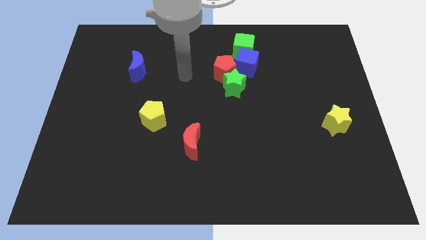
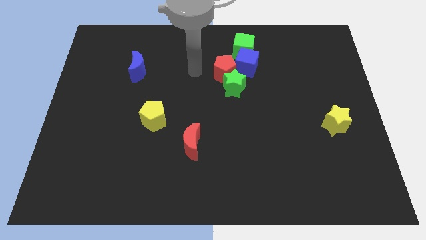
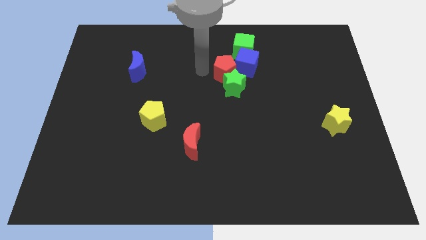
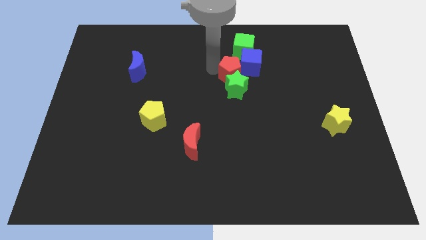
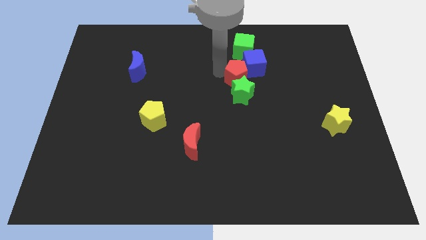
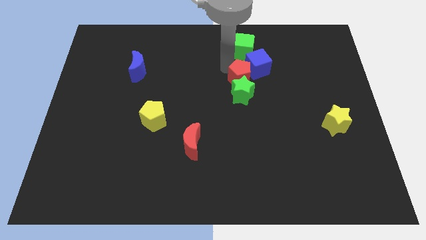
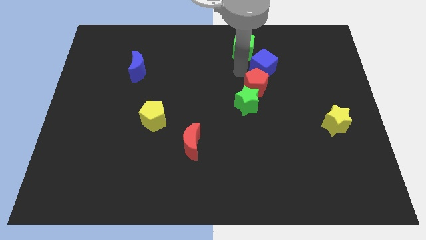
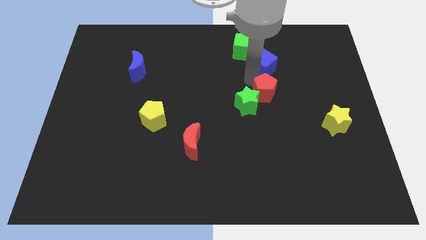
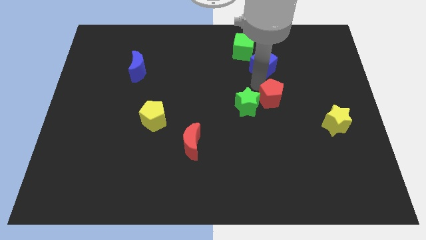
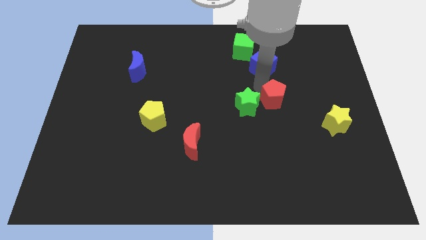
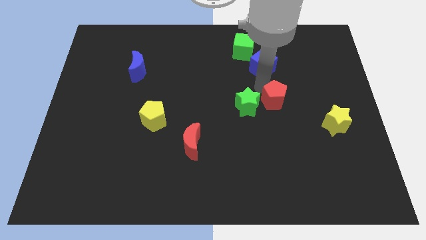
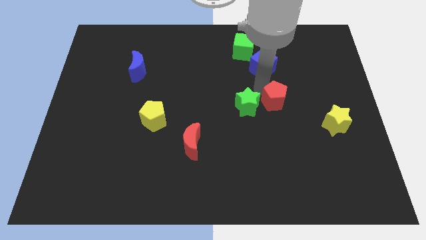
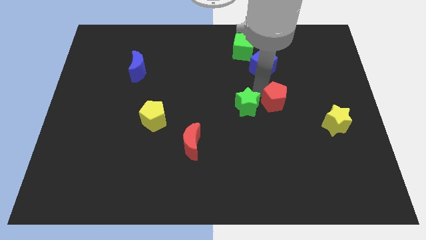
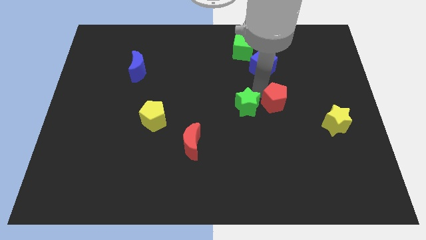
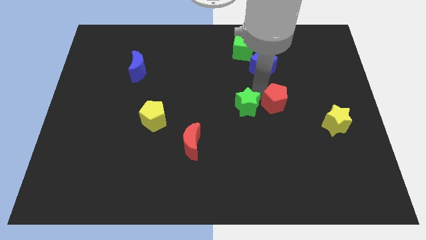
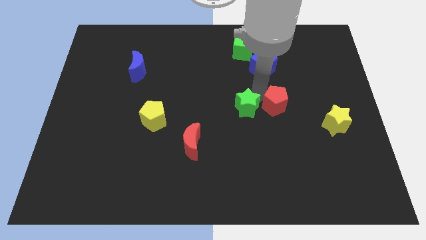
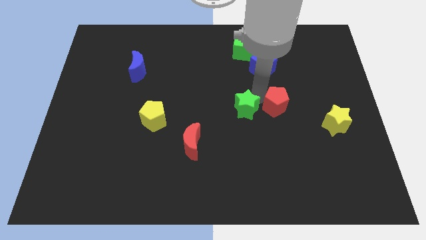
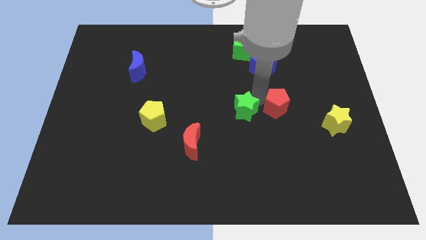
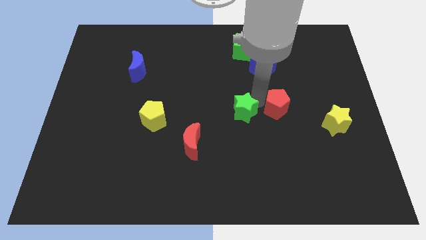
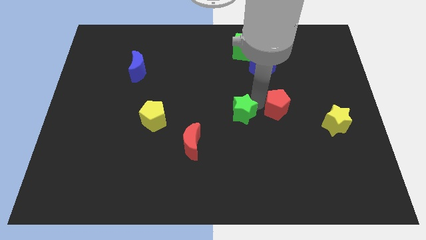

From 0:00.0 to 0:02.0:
move the green star away from the red pentagon and blue cube

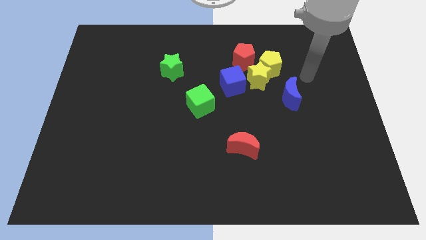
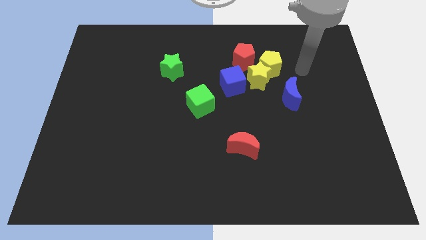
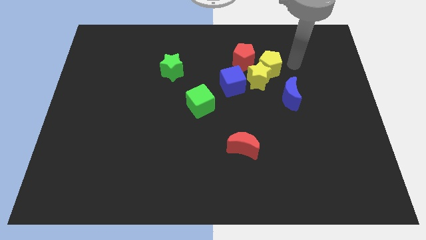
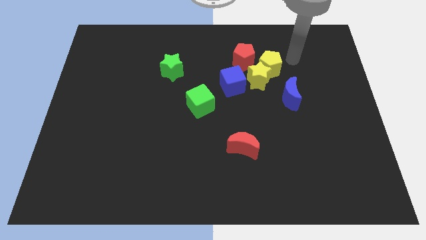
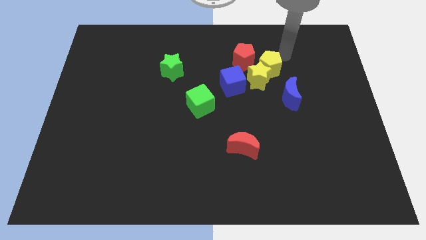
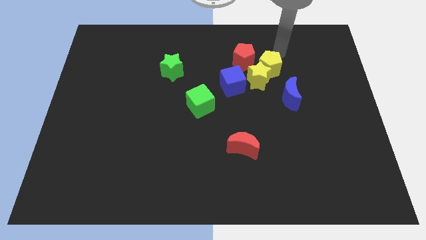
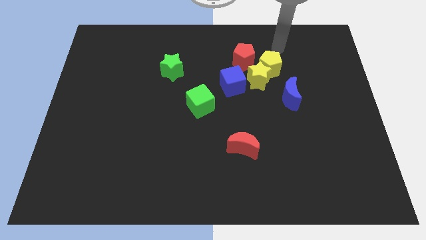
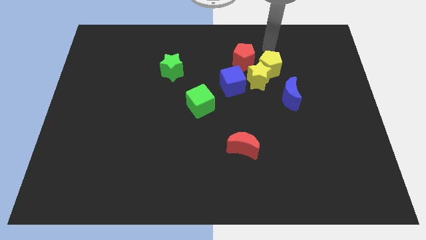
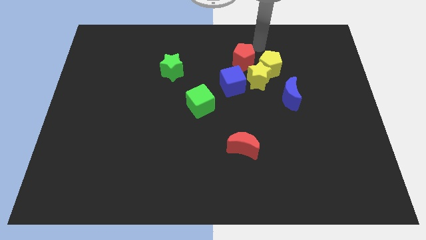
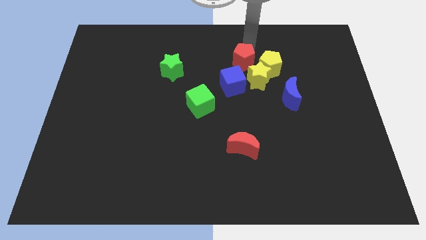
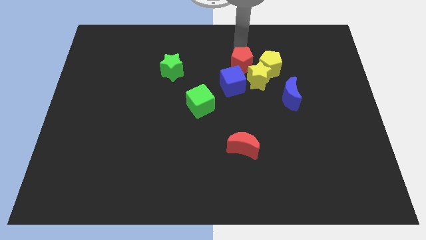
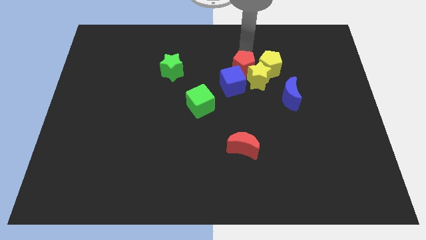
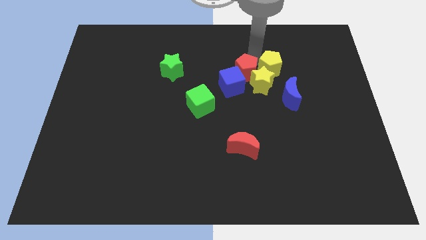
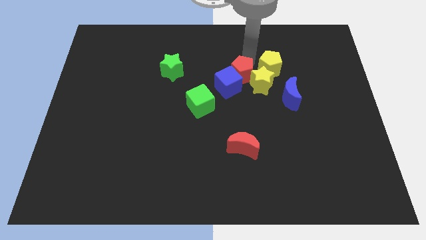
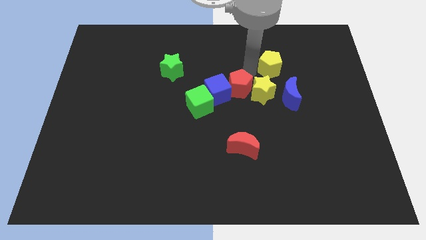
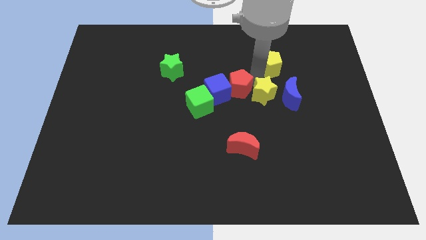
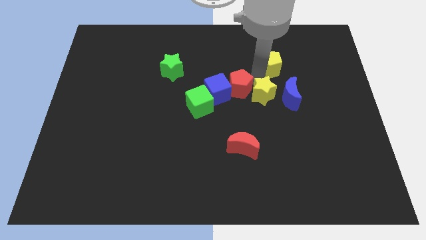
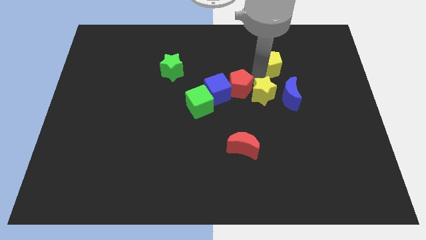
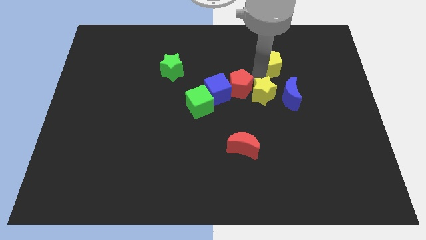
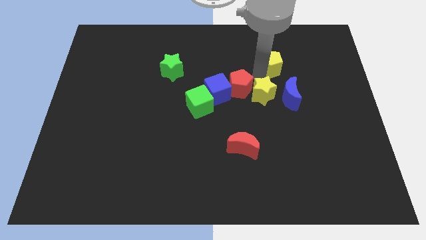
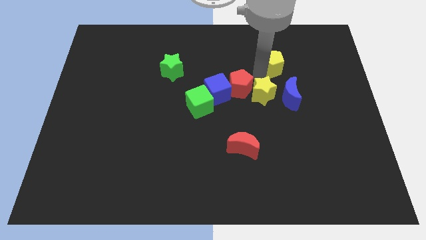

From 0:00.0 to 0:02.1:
separate the yellow pentagon from the yellow star and red pentagon

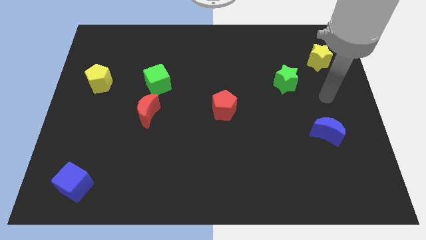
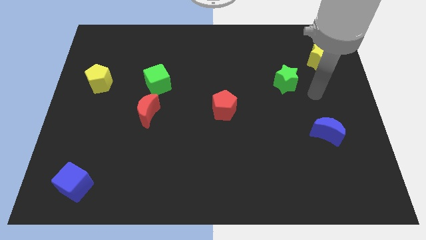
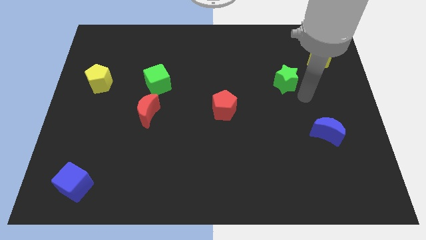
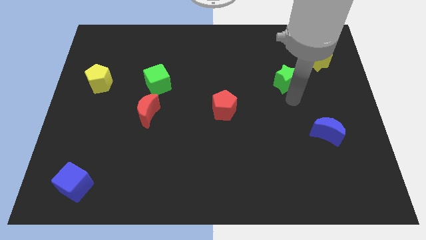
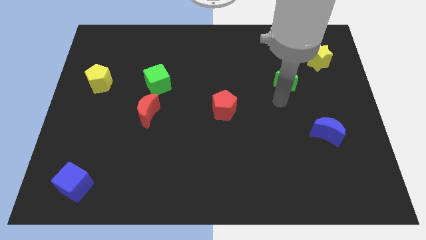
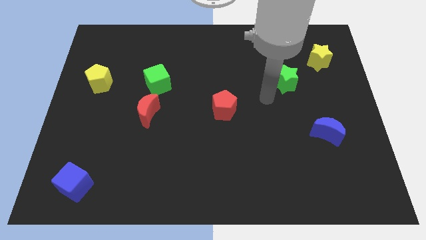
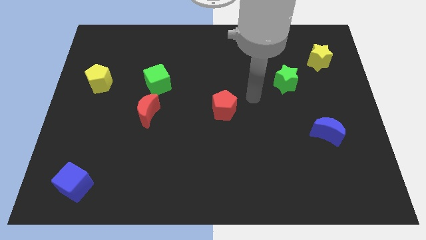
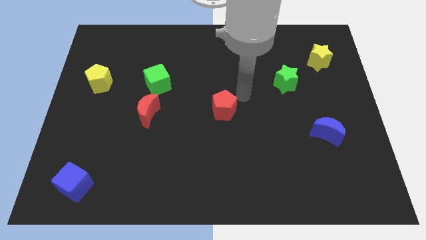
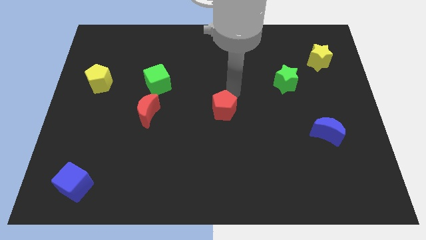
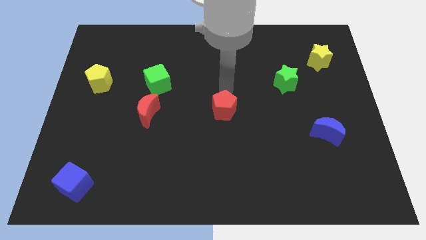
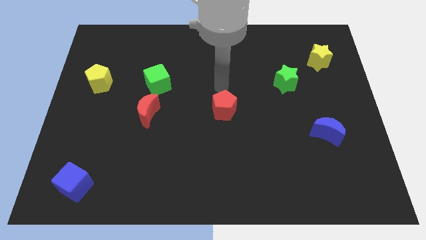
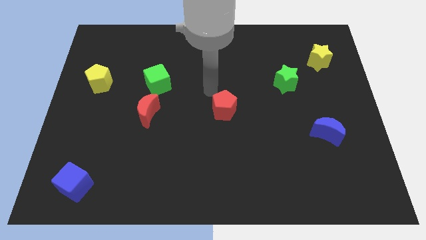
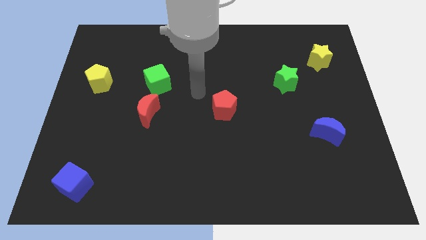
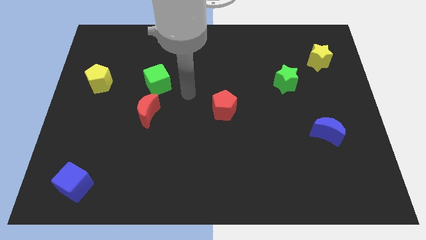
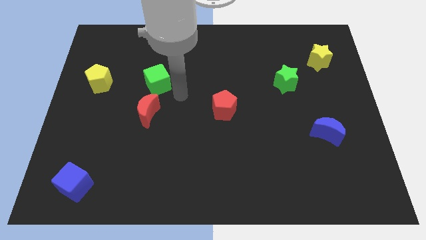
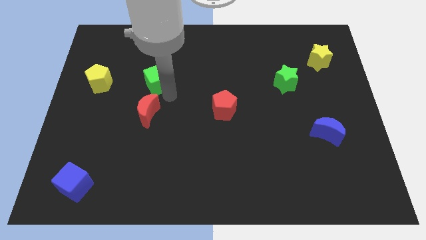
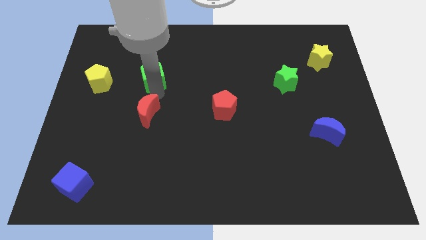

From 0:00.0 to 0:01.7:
separate the red moon from the green cube

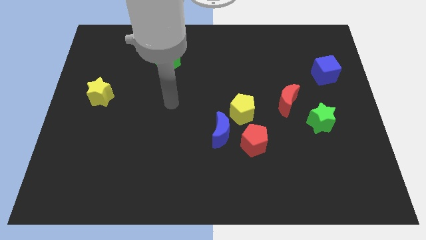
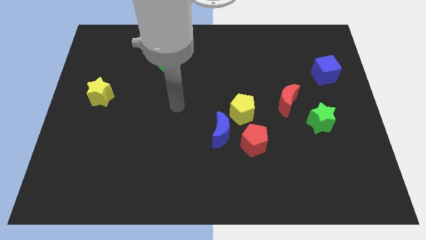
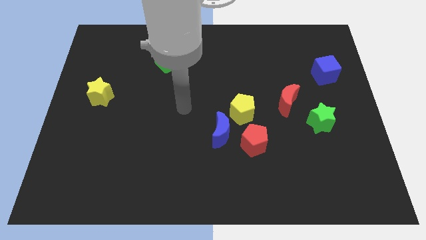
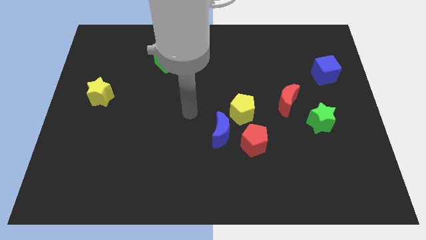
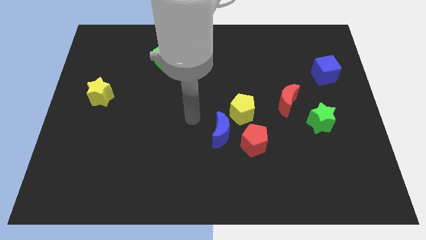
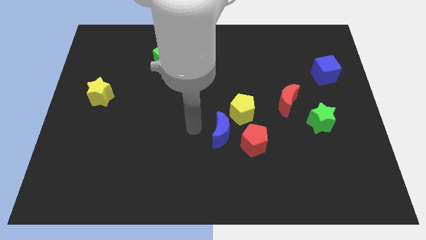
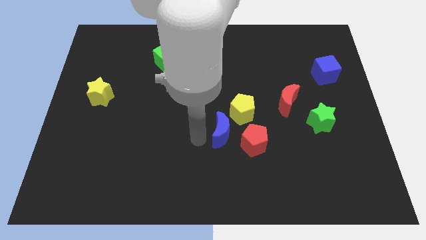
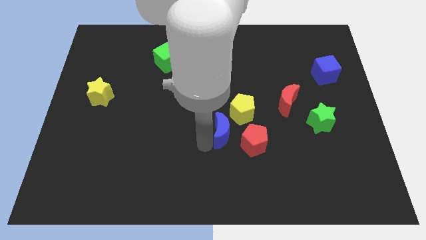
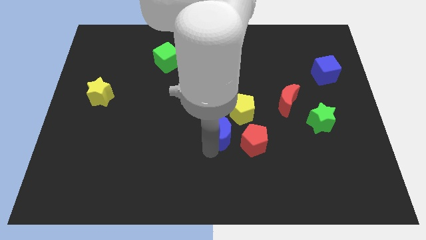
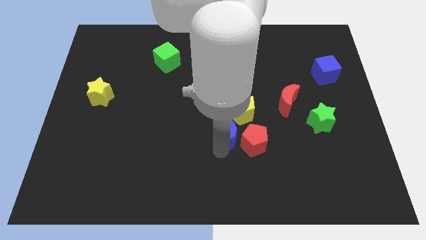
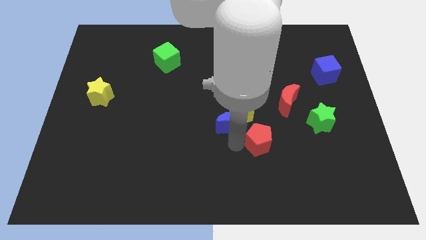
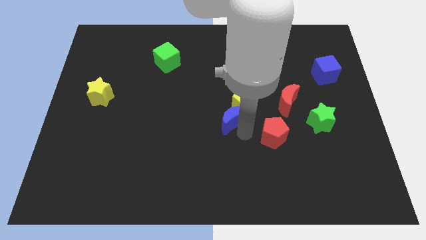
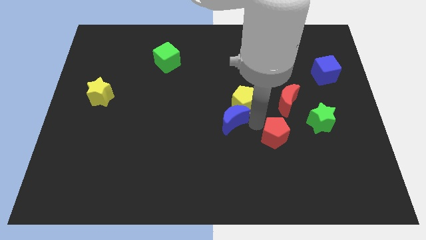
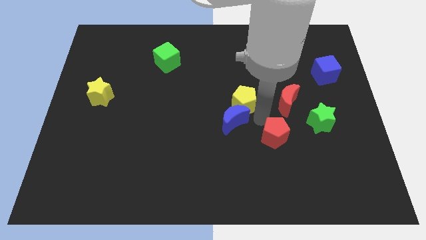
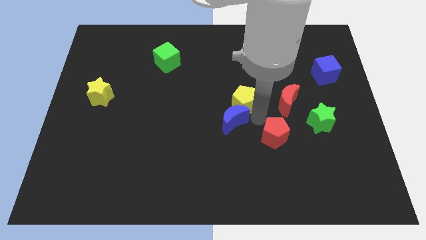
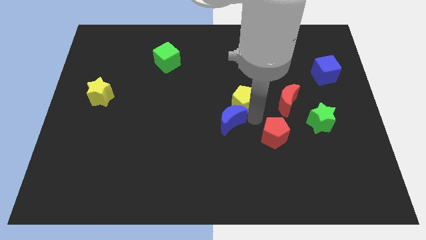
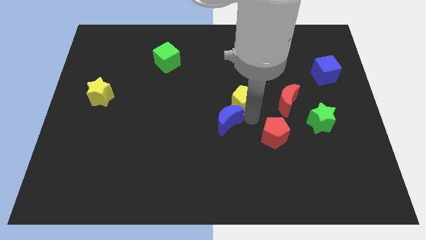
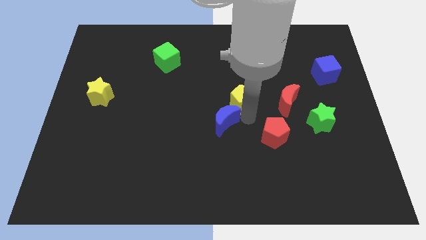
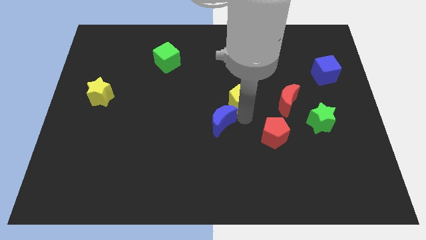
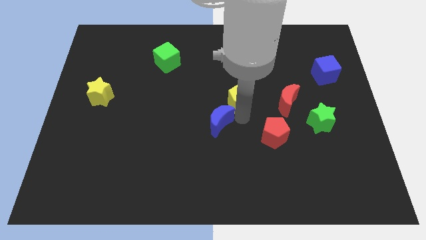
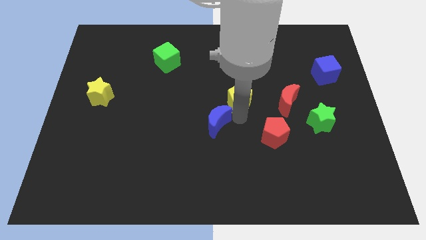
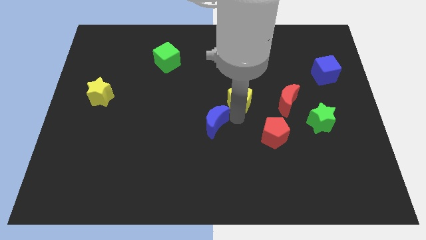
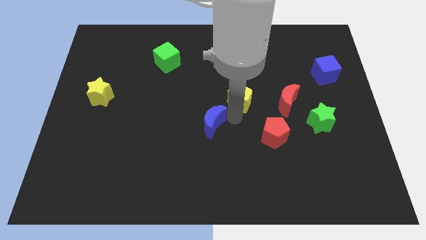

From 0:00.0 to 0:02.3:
pull the blue moon apart from the red pentagon and yellow pentagon

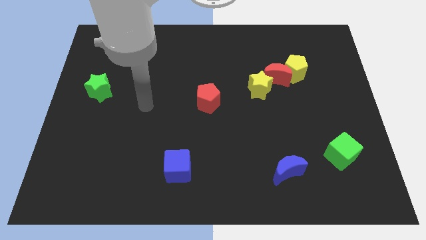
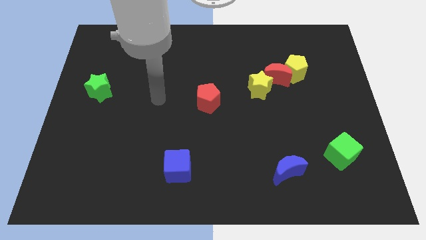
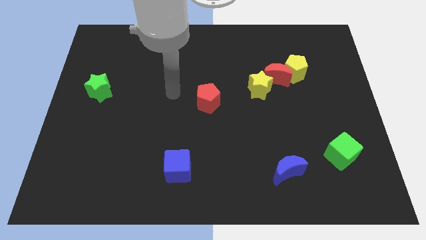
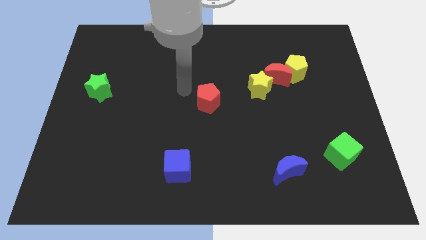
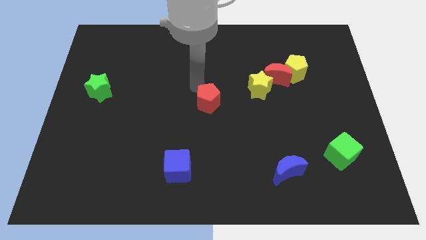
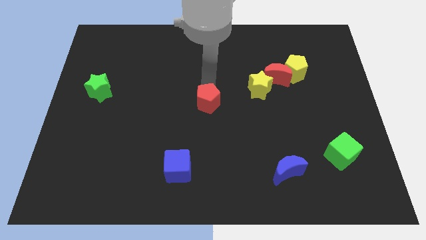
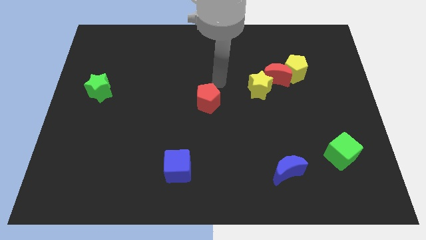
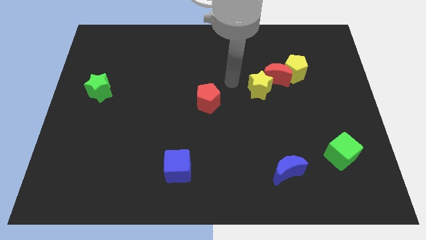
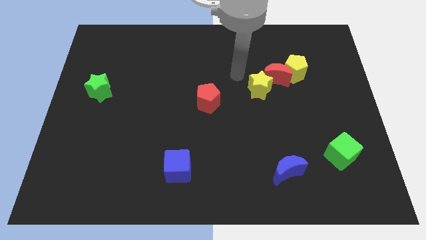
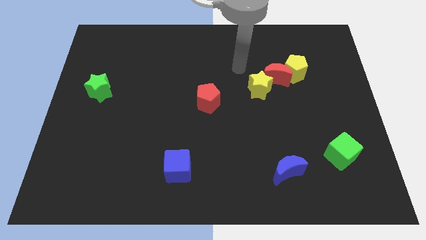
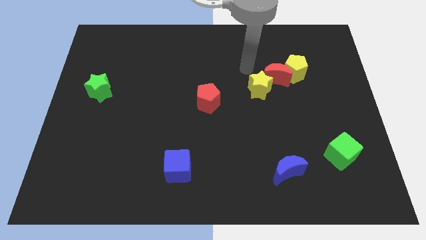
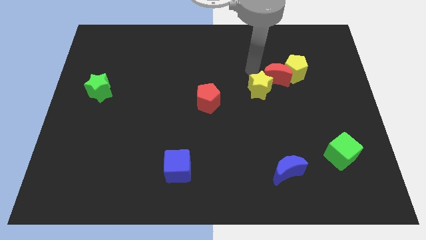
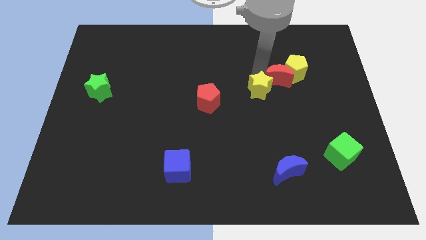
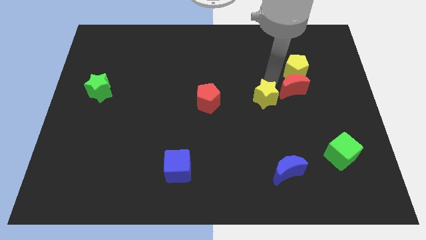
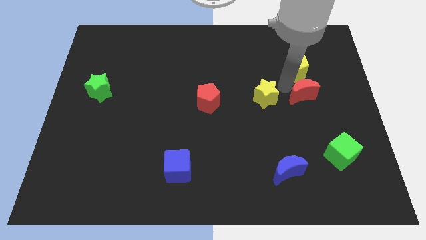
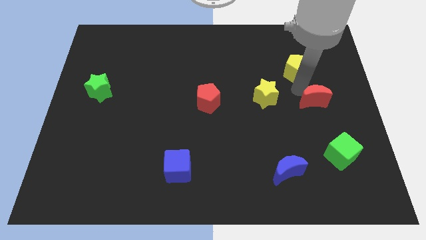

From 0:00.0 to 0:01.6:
move the yellow pentagon away from the red moon
